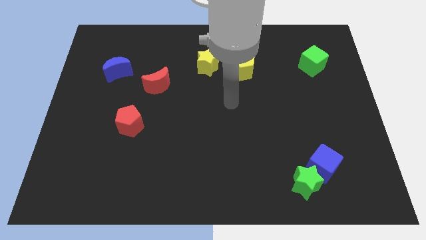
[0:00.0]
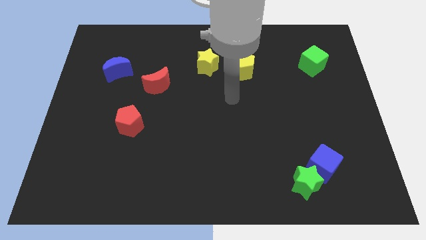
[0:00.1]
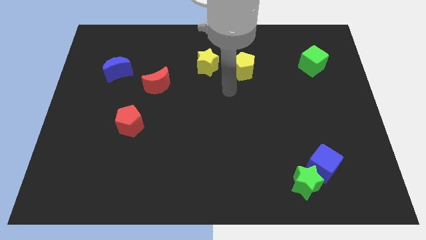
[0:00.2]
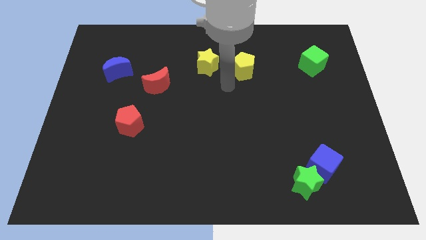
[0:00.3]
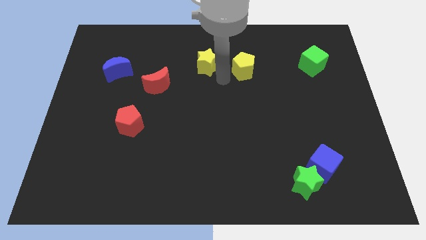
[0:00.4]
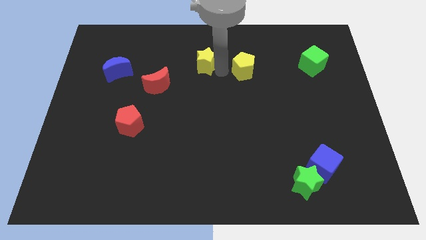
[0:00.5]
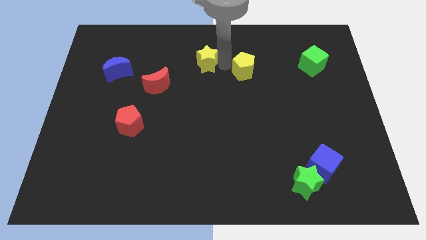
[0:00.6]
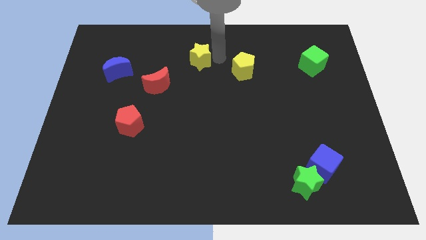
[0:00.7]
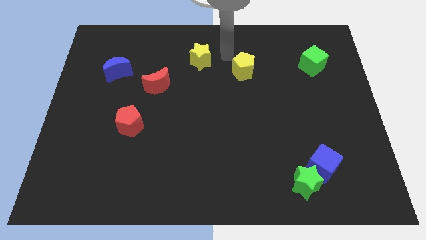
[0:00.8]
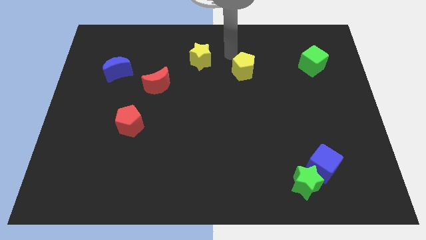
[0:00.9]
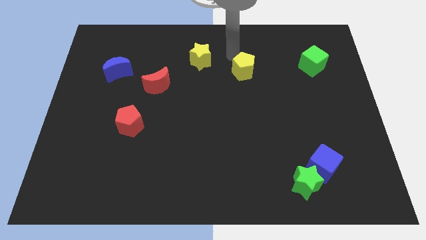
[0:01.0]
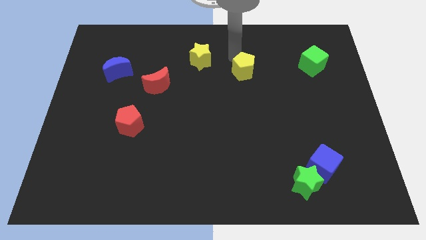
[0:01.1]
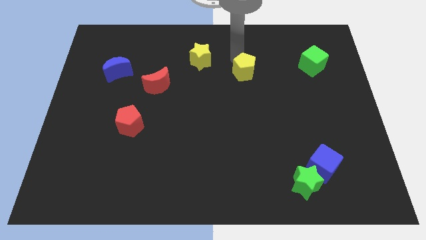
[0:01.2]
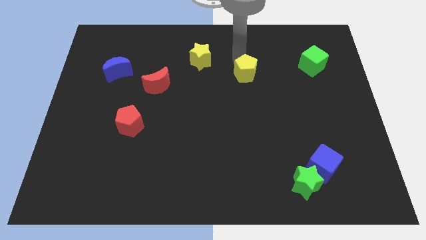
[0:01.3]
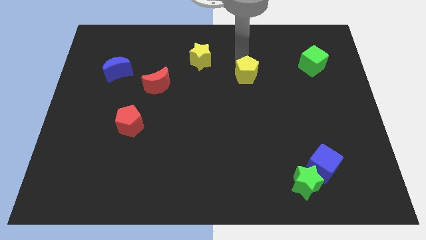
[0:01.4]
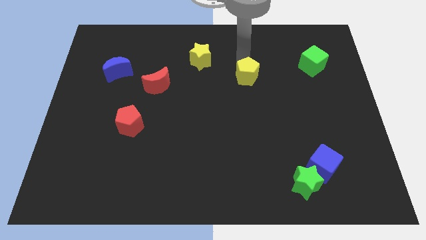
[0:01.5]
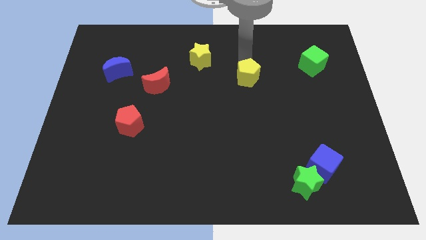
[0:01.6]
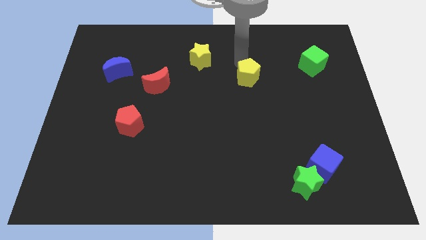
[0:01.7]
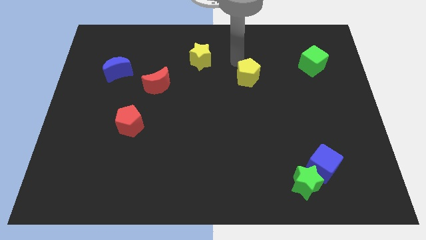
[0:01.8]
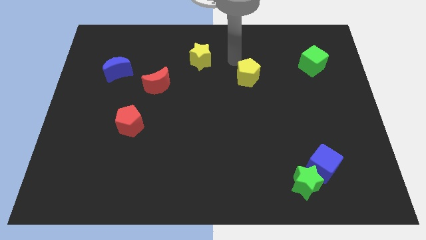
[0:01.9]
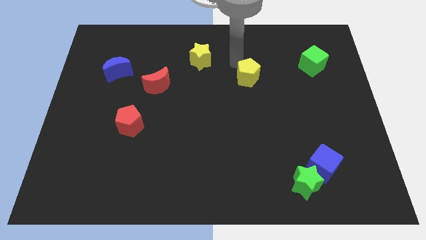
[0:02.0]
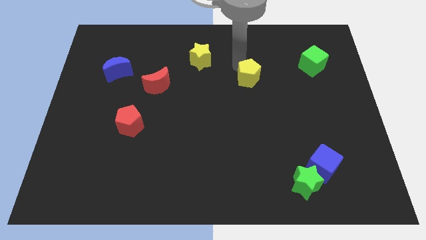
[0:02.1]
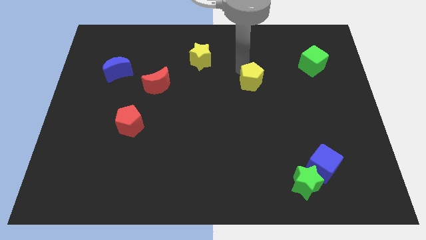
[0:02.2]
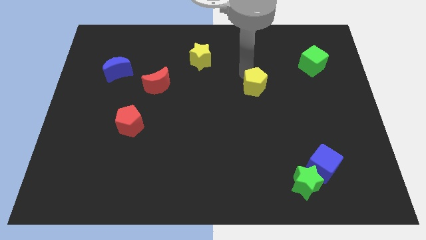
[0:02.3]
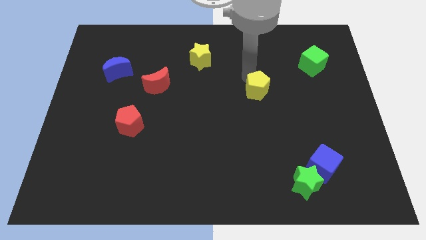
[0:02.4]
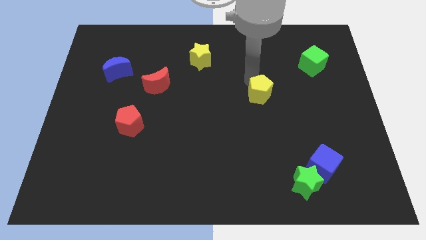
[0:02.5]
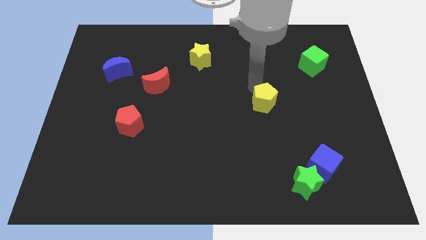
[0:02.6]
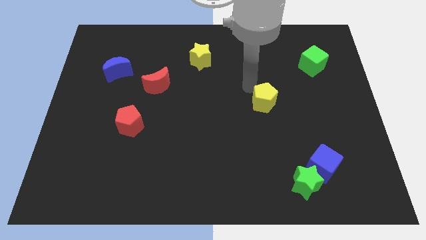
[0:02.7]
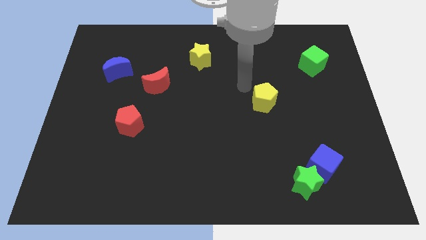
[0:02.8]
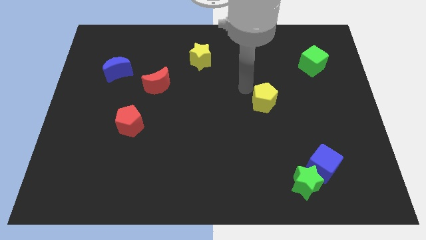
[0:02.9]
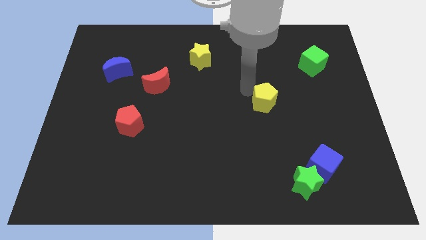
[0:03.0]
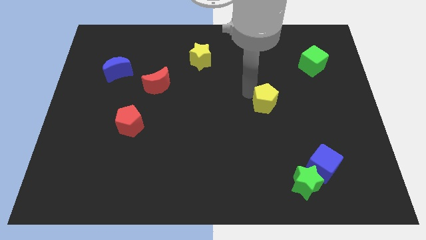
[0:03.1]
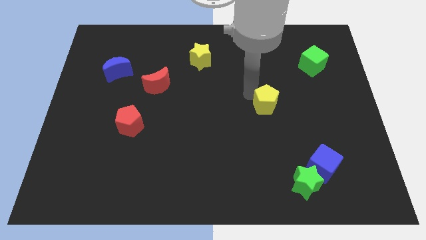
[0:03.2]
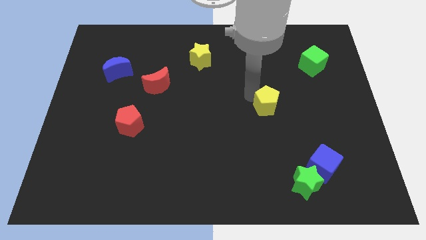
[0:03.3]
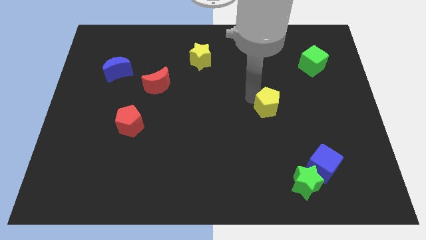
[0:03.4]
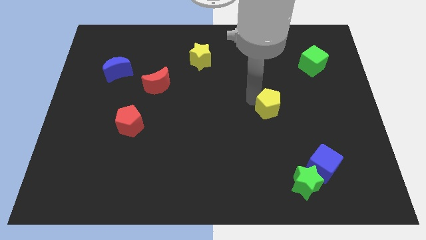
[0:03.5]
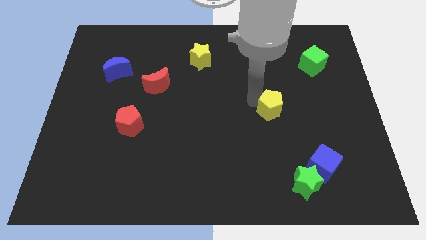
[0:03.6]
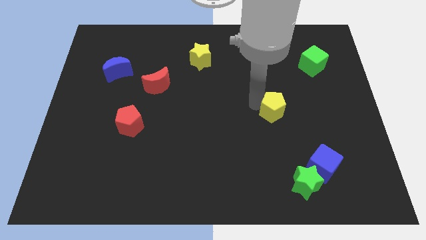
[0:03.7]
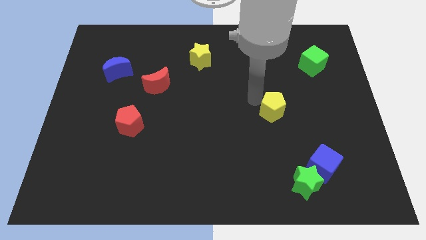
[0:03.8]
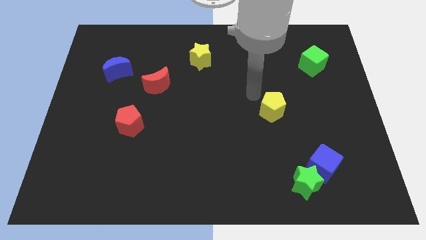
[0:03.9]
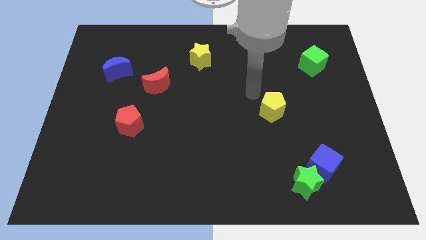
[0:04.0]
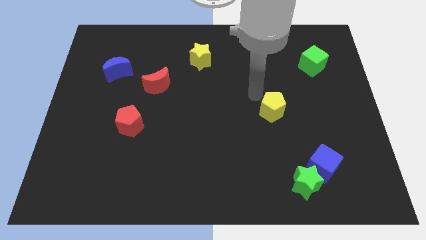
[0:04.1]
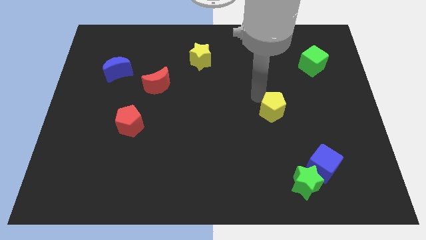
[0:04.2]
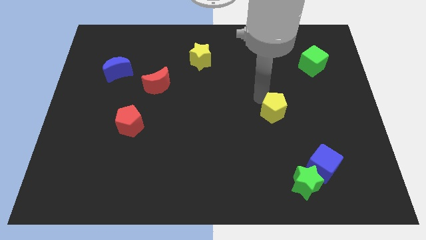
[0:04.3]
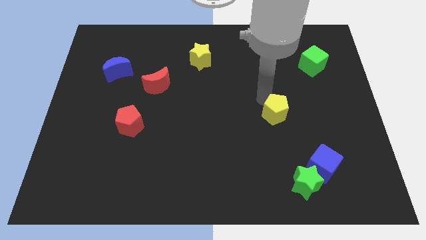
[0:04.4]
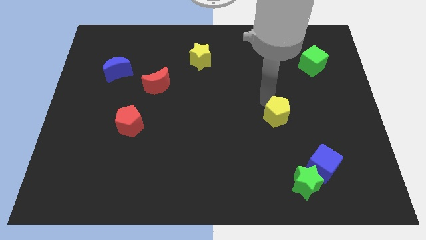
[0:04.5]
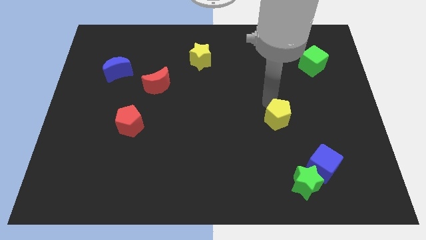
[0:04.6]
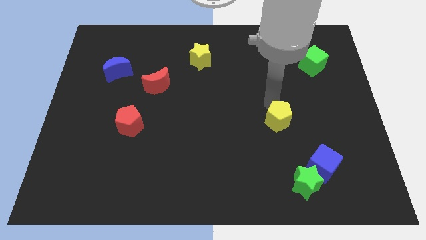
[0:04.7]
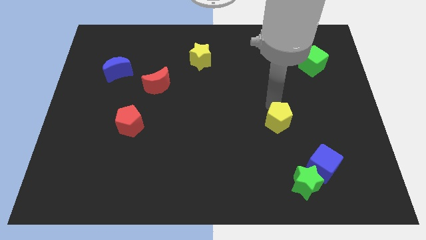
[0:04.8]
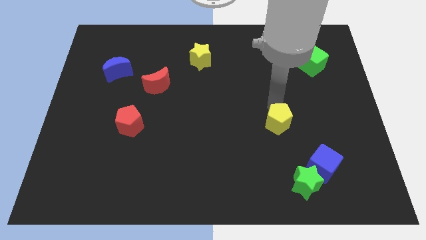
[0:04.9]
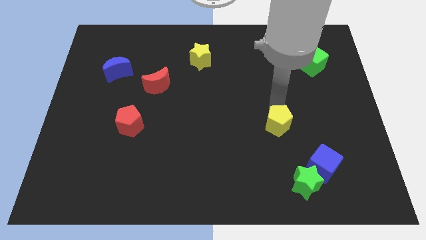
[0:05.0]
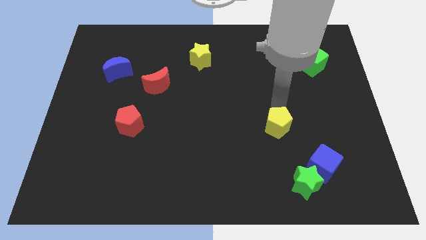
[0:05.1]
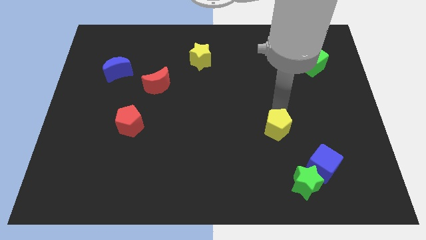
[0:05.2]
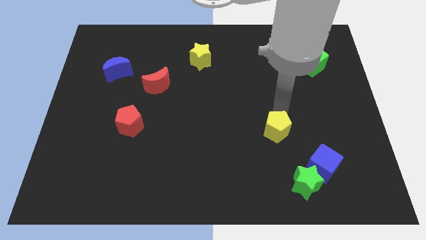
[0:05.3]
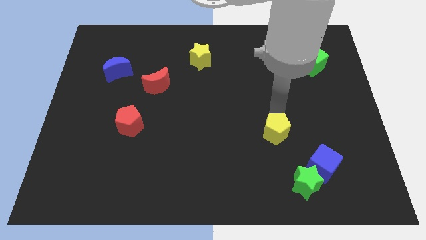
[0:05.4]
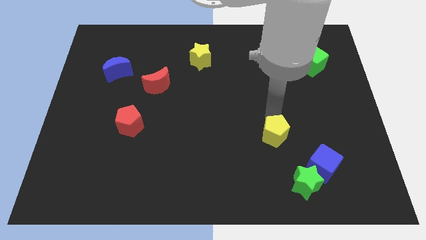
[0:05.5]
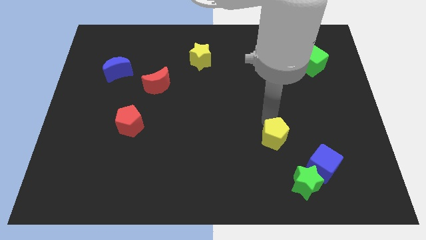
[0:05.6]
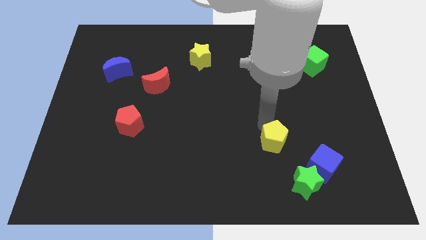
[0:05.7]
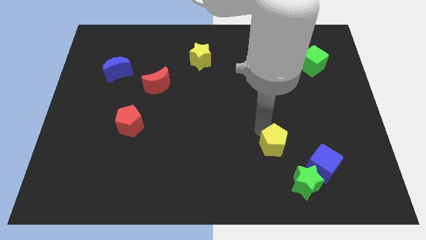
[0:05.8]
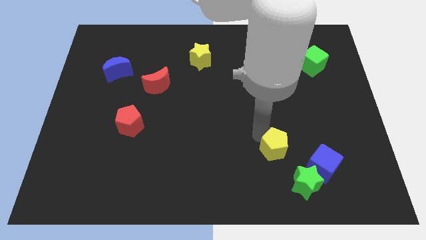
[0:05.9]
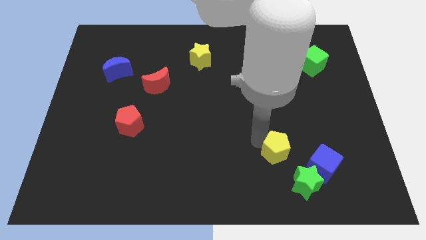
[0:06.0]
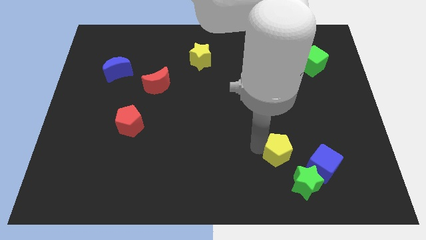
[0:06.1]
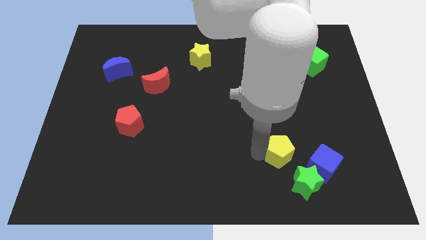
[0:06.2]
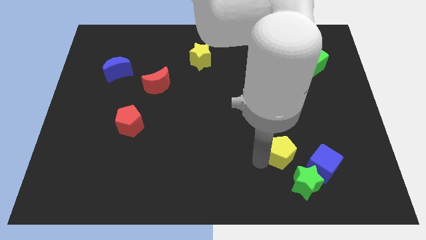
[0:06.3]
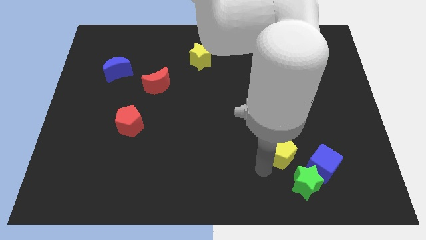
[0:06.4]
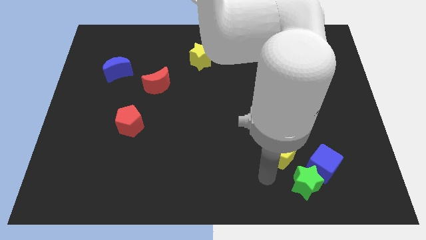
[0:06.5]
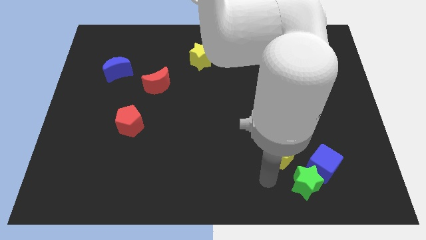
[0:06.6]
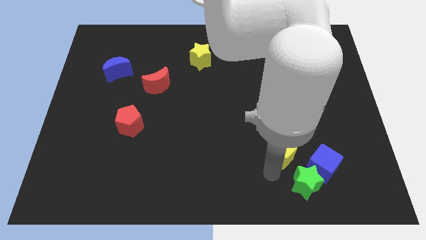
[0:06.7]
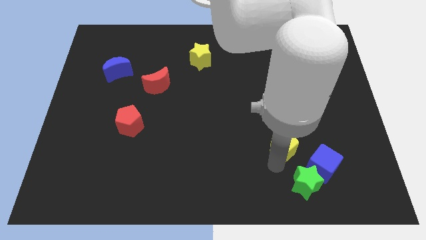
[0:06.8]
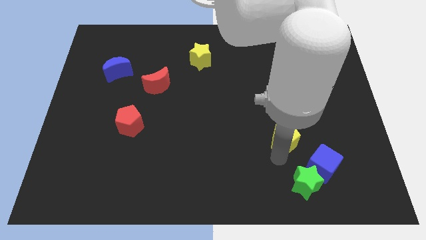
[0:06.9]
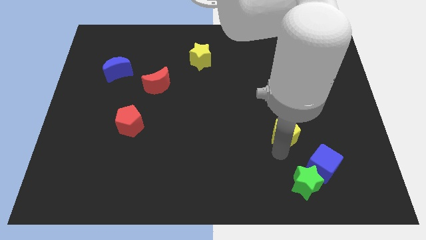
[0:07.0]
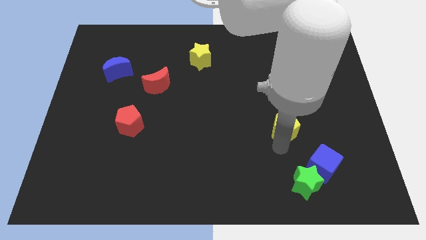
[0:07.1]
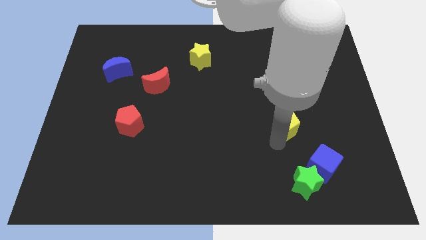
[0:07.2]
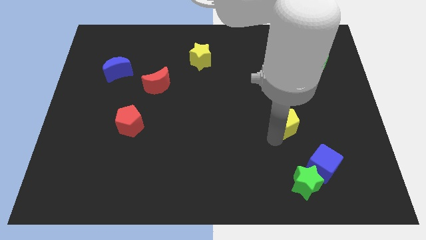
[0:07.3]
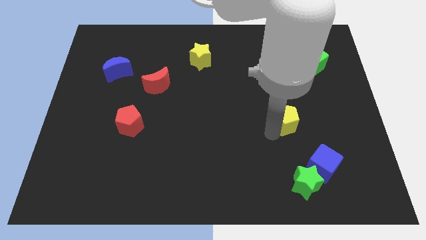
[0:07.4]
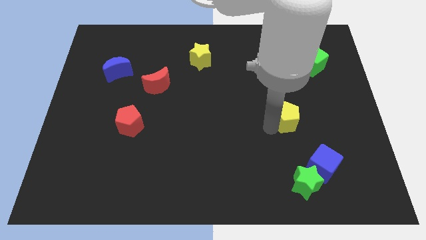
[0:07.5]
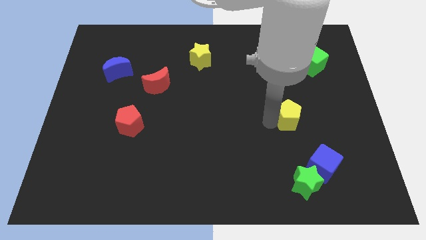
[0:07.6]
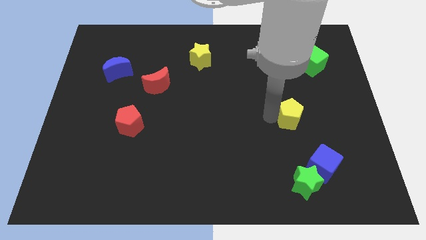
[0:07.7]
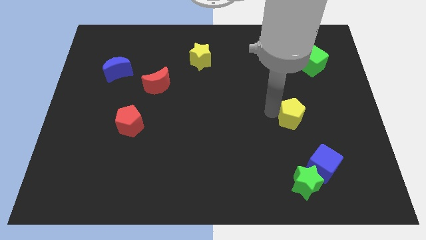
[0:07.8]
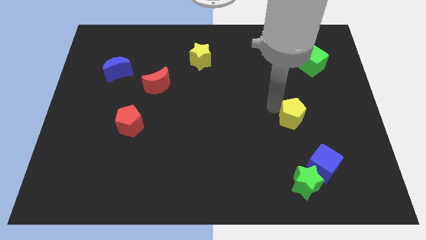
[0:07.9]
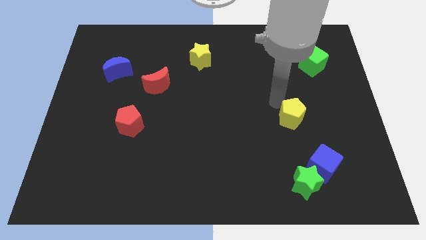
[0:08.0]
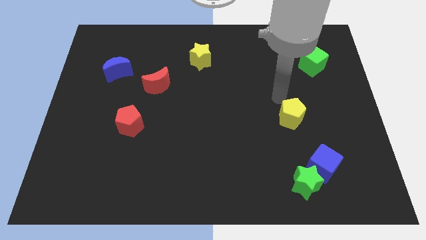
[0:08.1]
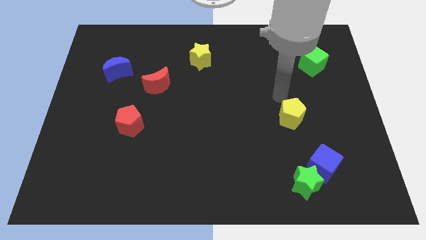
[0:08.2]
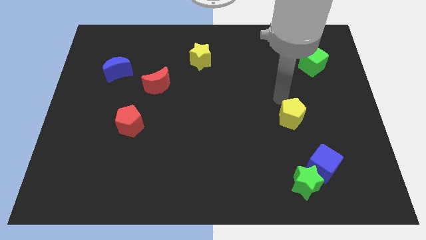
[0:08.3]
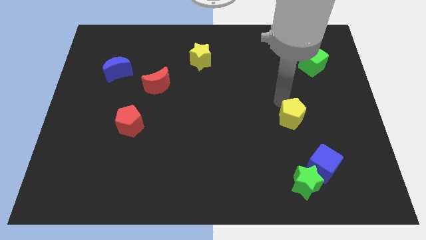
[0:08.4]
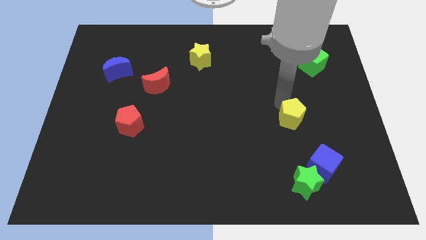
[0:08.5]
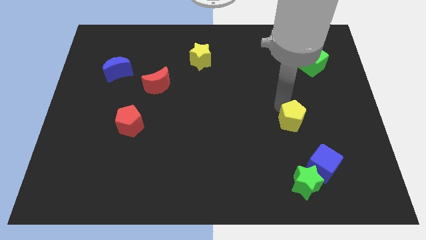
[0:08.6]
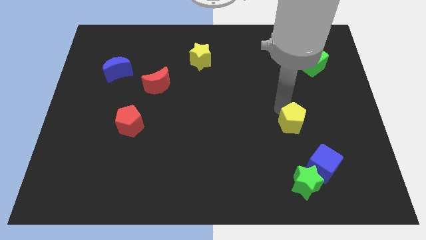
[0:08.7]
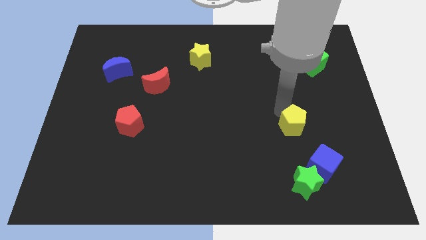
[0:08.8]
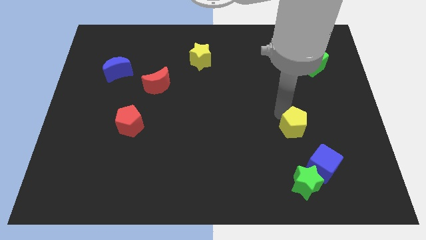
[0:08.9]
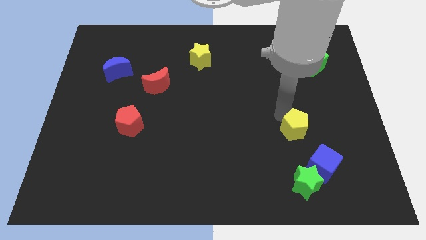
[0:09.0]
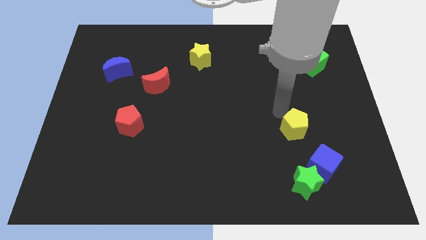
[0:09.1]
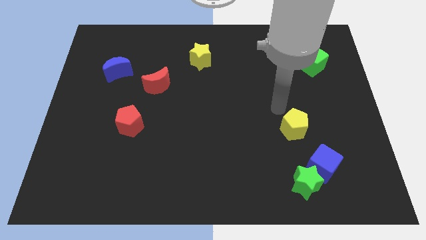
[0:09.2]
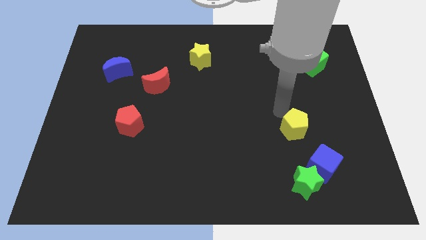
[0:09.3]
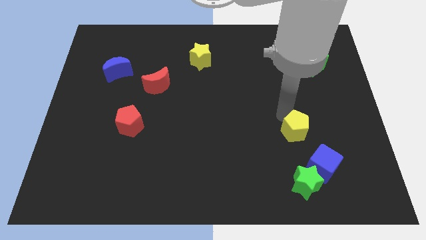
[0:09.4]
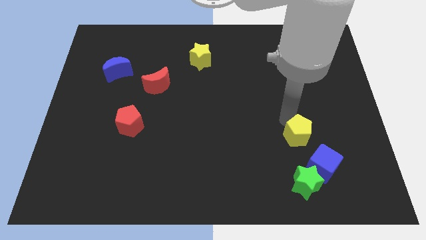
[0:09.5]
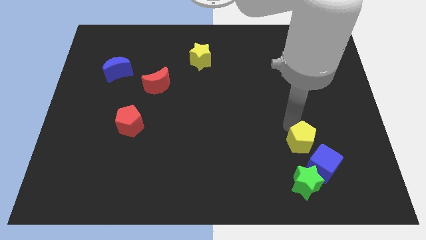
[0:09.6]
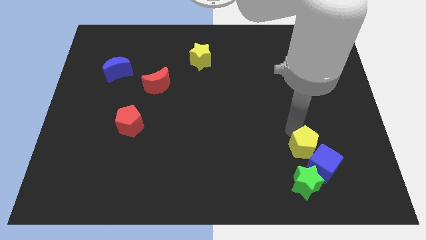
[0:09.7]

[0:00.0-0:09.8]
move the yellow pentagon next to the blue cube
